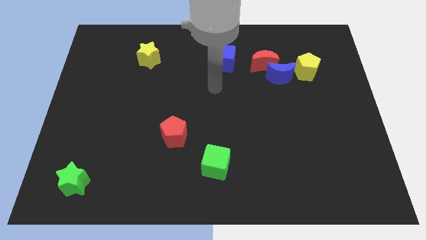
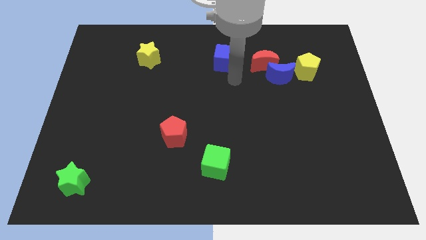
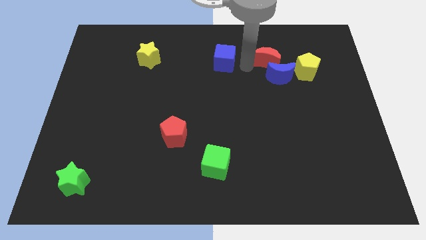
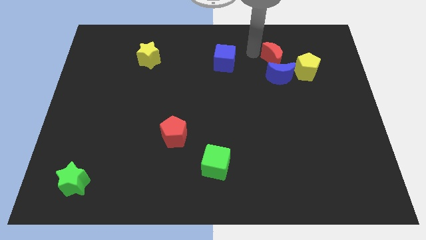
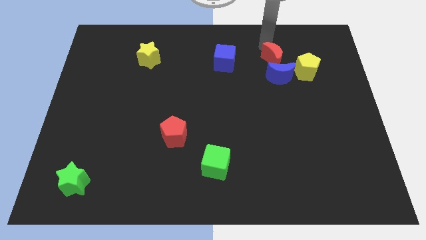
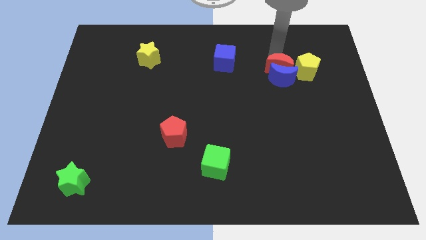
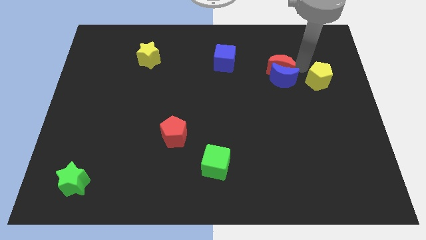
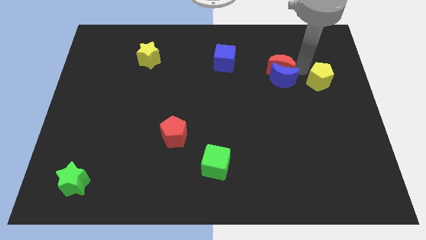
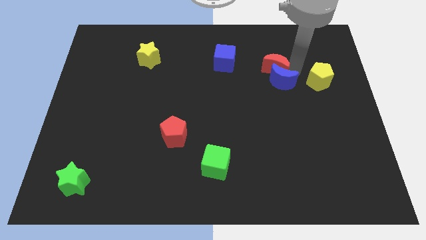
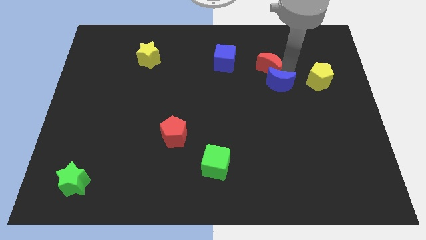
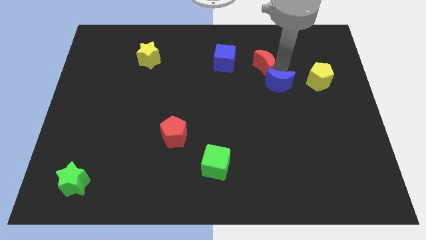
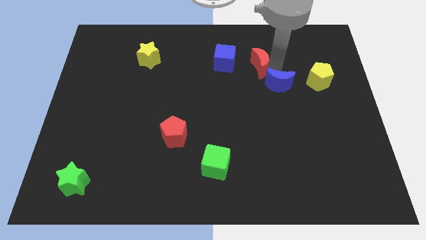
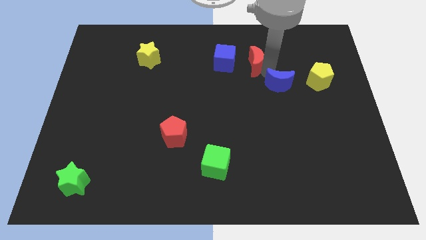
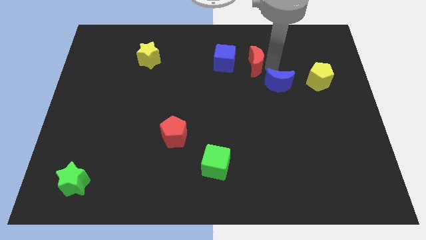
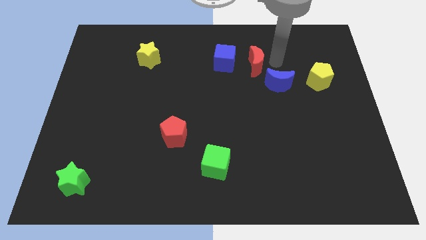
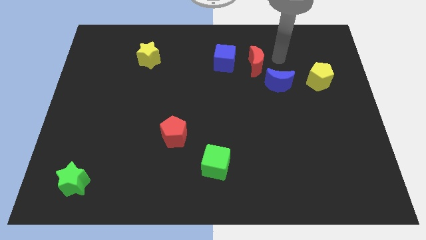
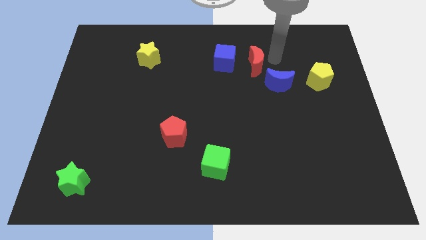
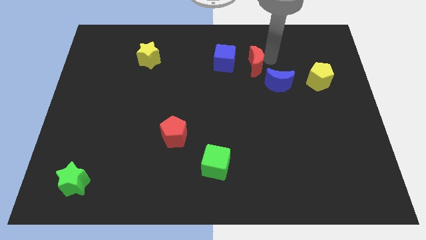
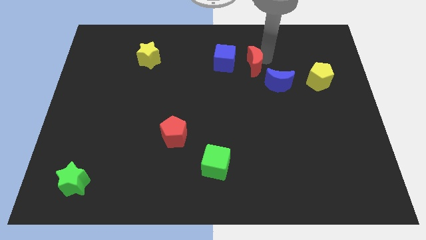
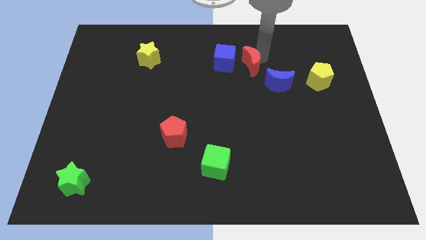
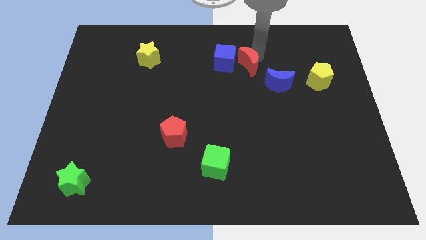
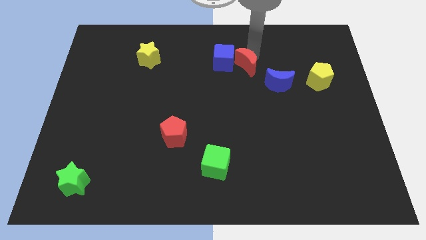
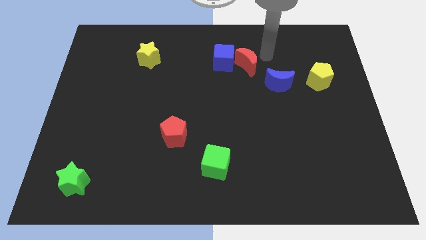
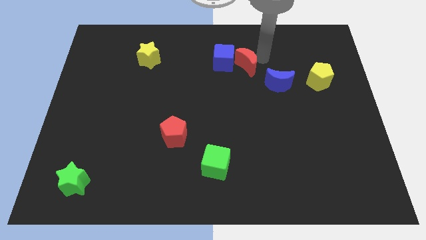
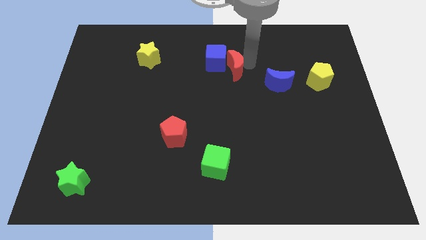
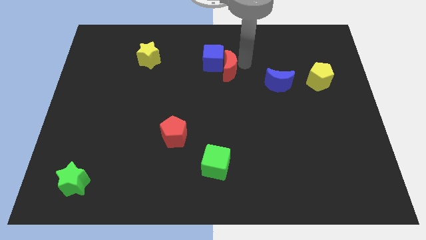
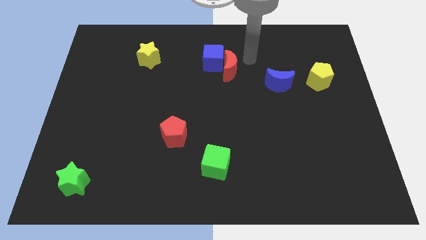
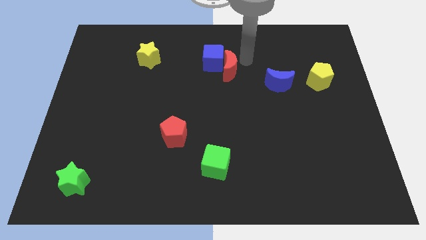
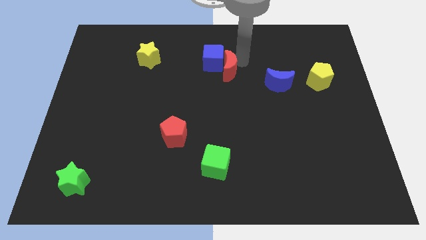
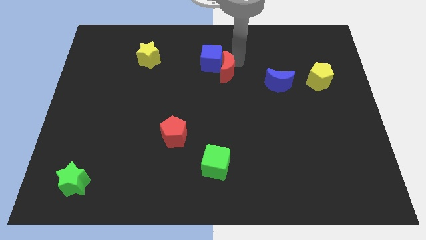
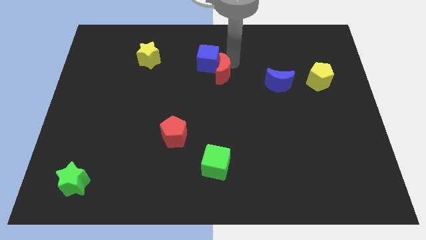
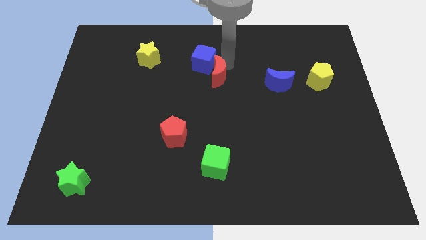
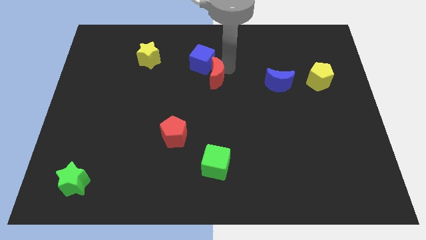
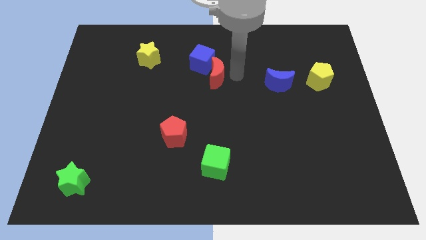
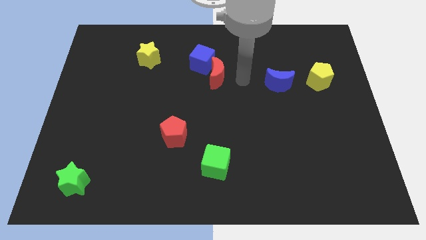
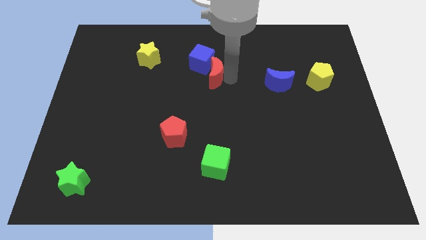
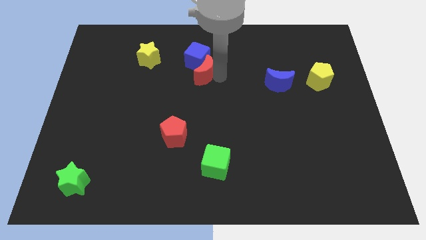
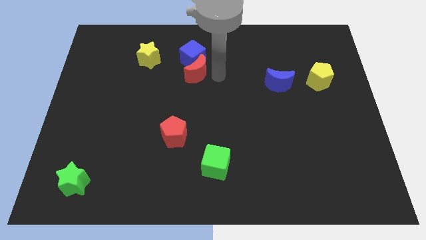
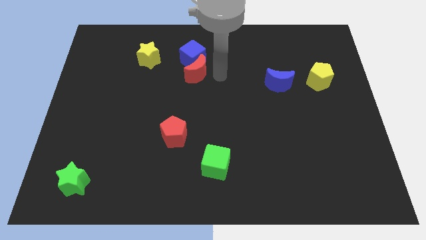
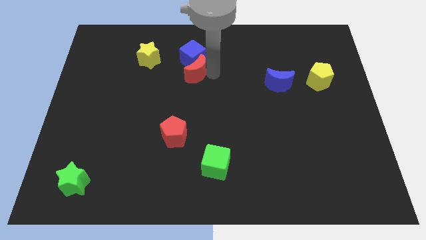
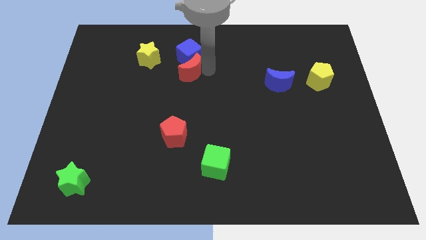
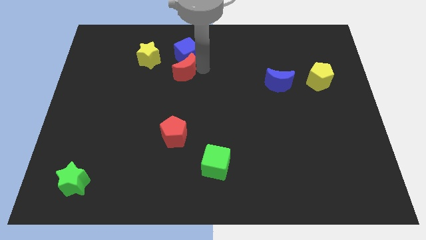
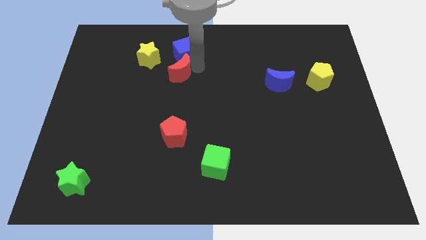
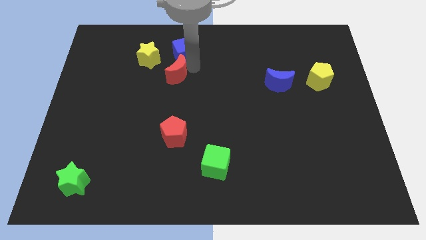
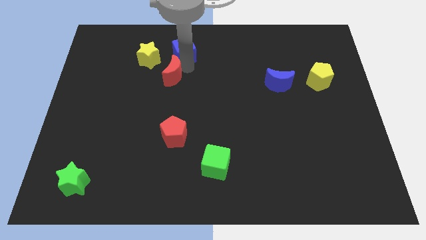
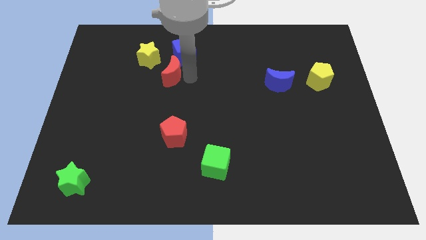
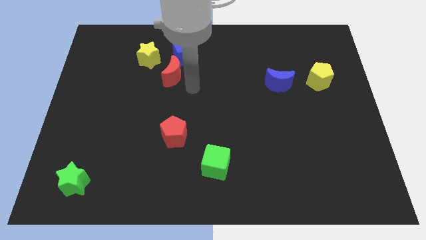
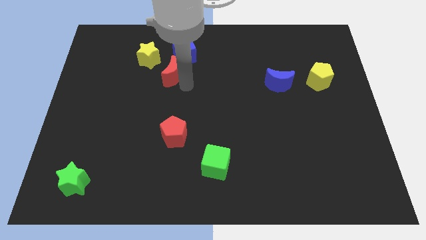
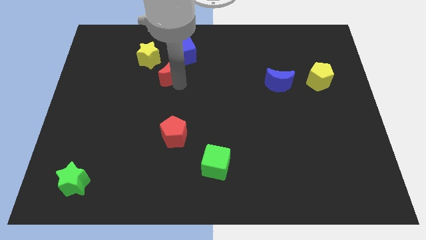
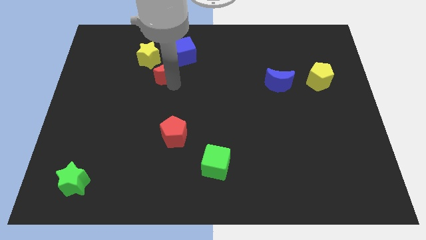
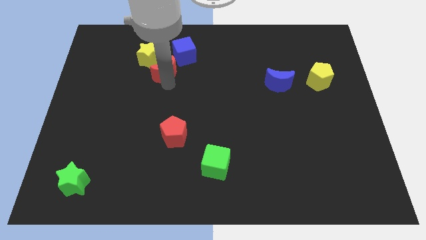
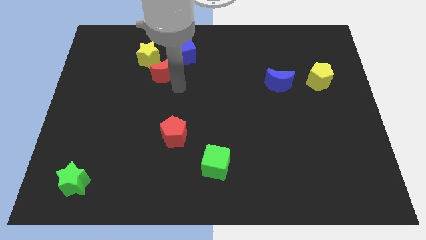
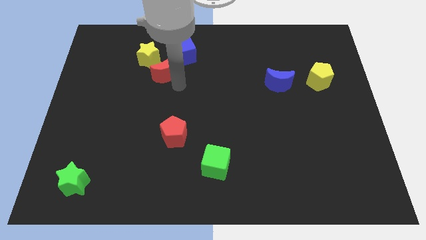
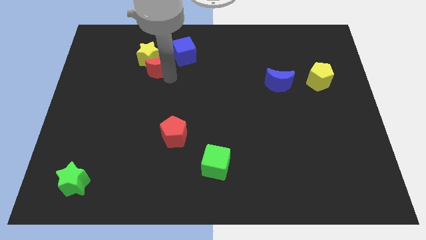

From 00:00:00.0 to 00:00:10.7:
put the red moon towards the yellow star

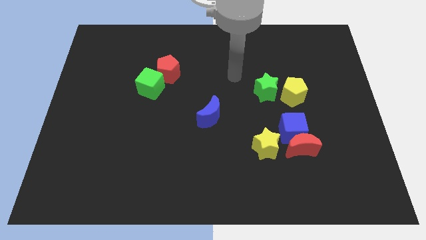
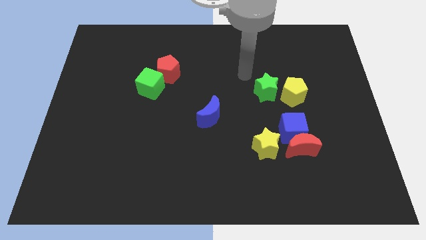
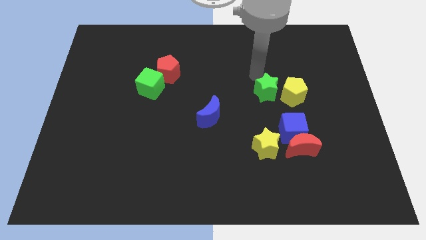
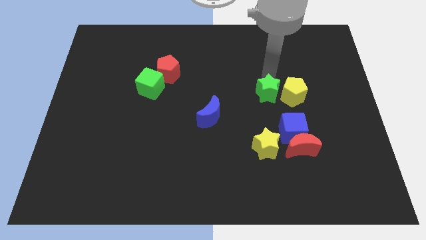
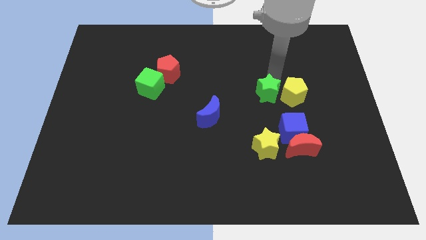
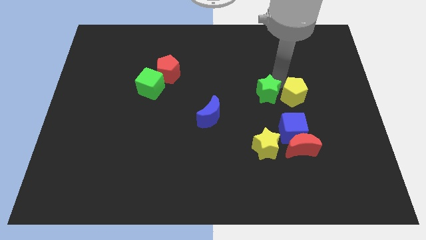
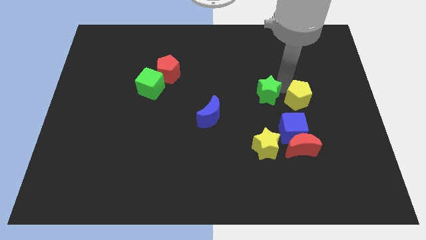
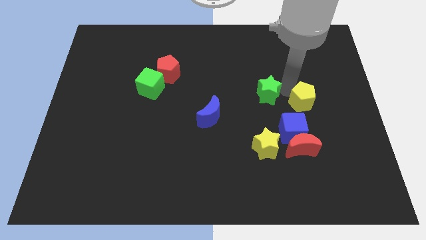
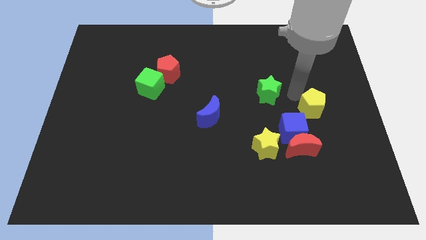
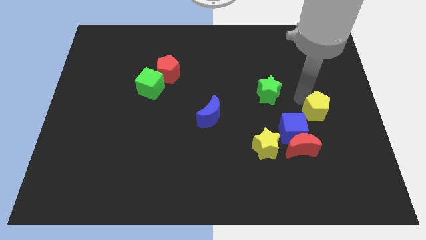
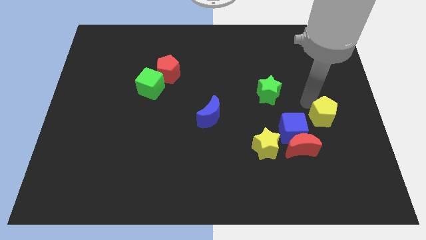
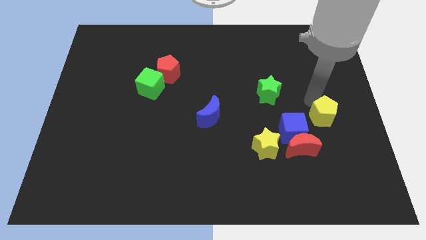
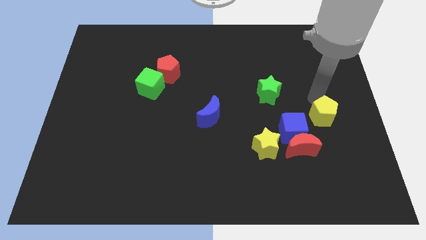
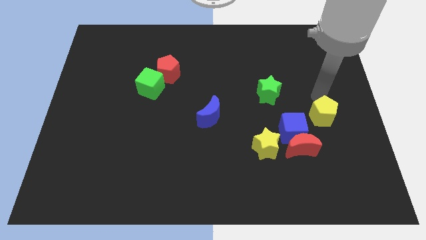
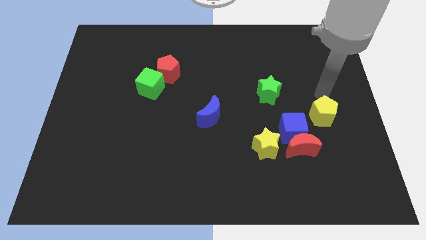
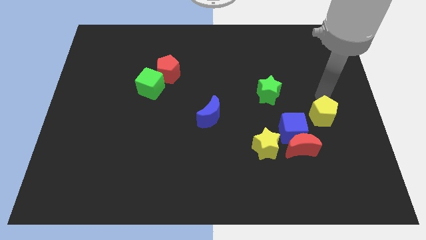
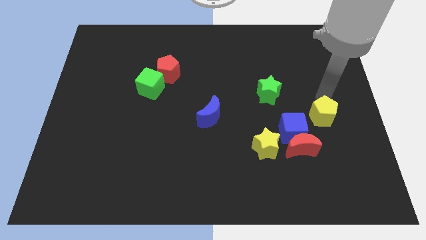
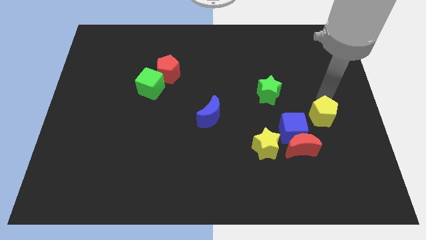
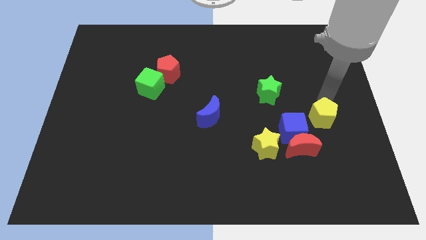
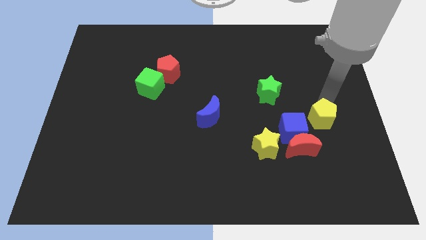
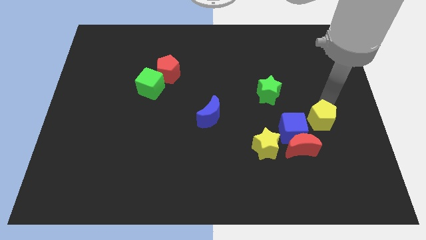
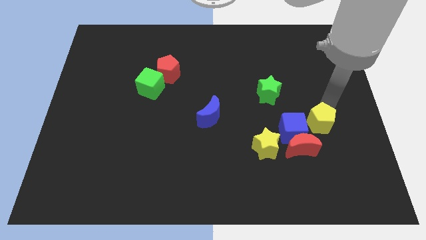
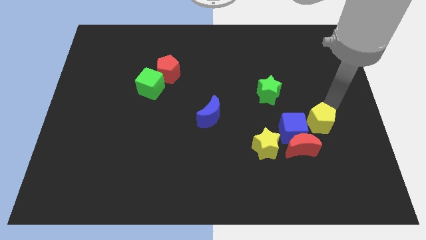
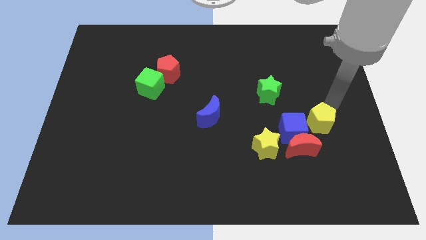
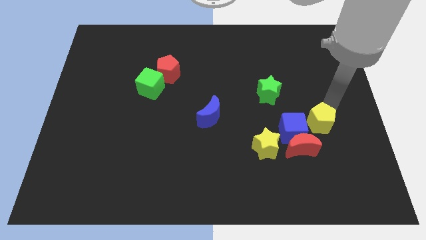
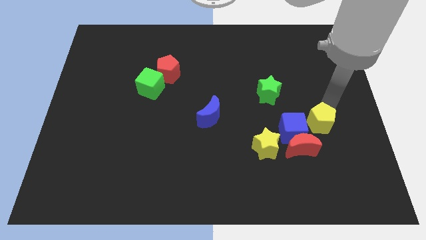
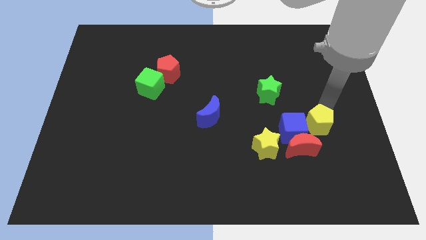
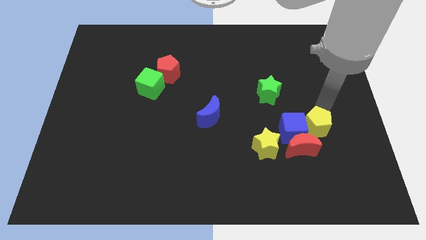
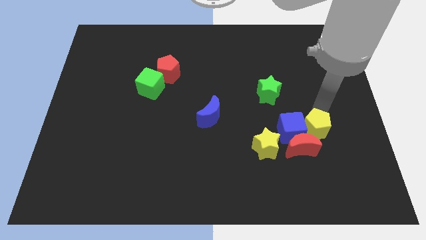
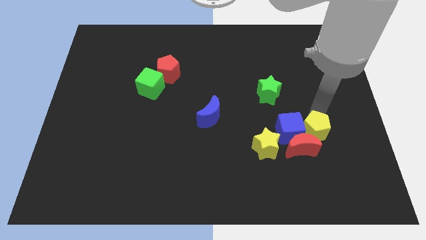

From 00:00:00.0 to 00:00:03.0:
move the yellow pentagon close to the red moon
